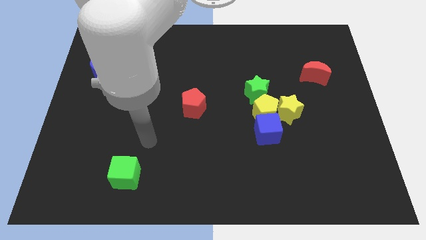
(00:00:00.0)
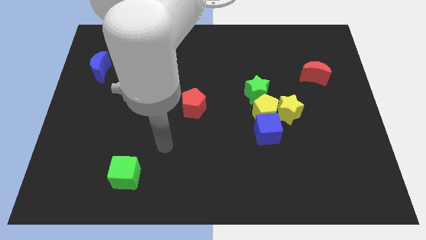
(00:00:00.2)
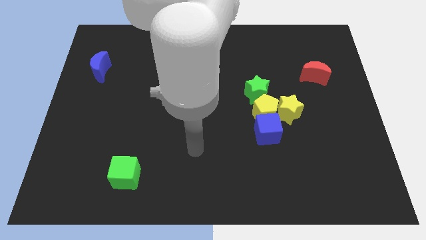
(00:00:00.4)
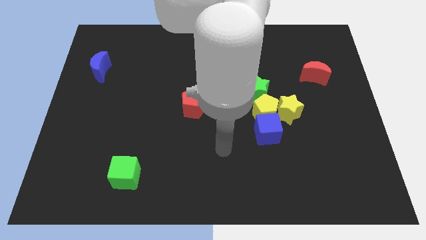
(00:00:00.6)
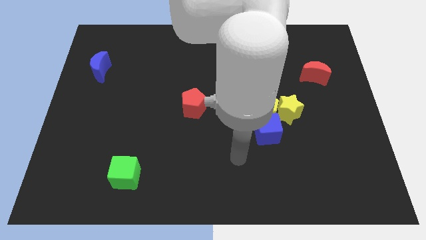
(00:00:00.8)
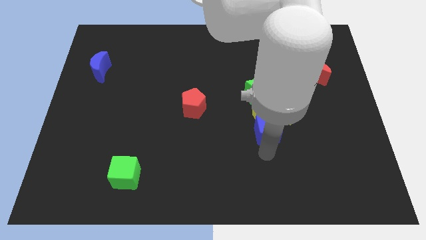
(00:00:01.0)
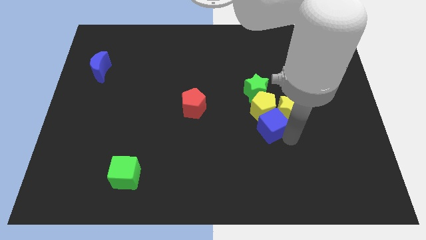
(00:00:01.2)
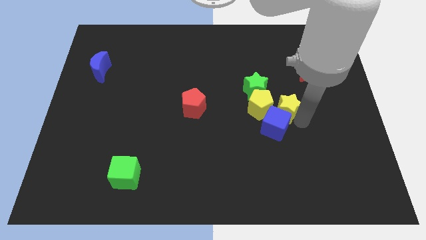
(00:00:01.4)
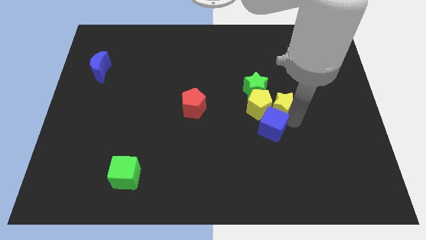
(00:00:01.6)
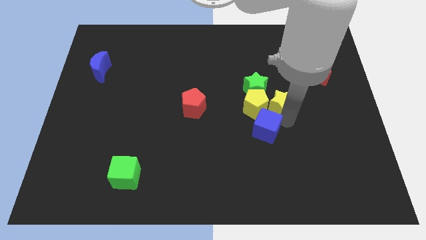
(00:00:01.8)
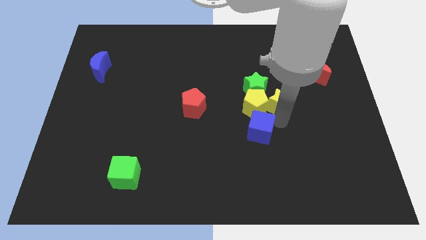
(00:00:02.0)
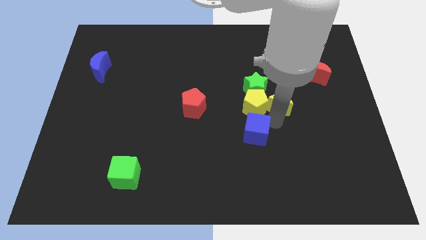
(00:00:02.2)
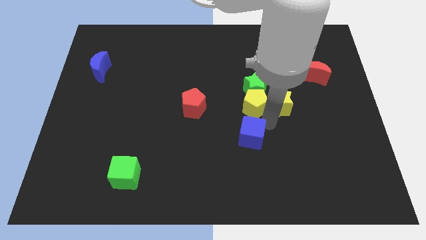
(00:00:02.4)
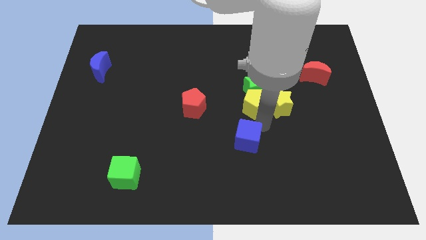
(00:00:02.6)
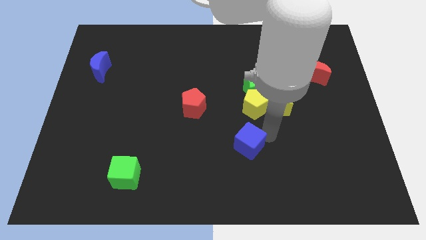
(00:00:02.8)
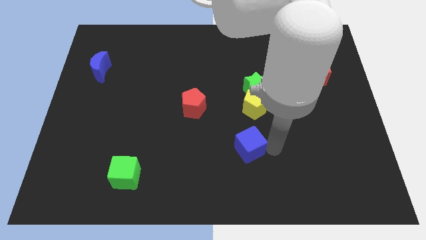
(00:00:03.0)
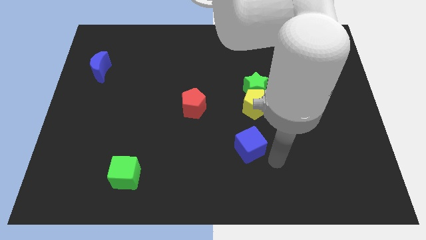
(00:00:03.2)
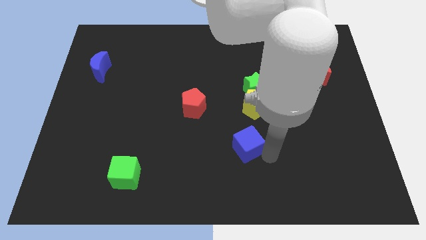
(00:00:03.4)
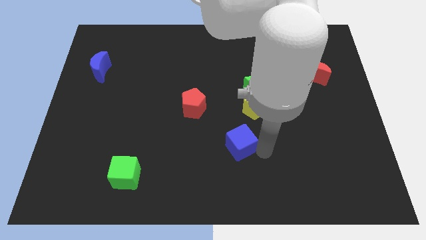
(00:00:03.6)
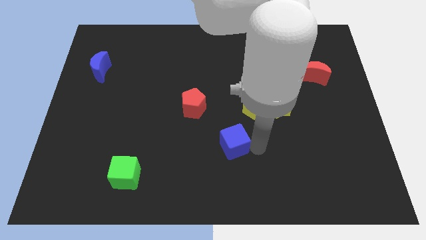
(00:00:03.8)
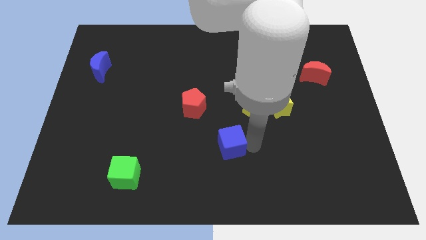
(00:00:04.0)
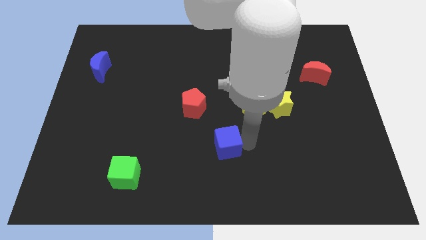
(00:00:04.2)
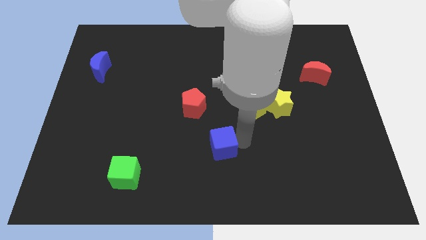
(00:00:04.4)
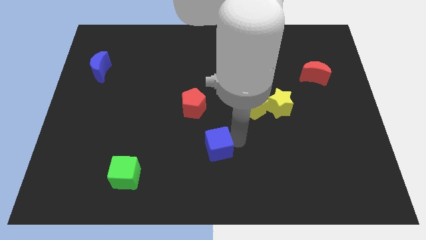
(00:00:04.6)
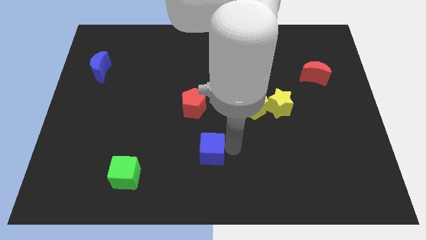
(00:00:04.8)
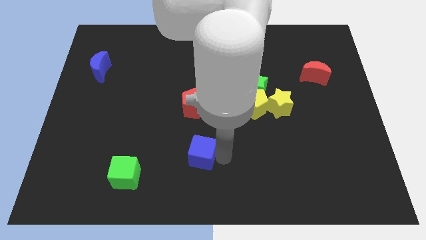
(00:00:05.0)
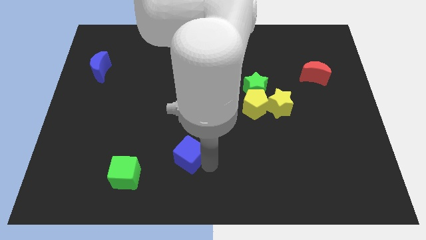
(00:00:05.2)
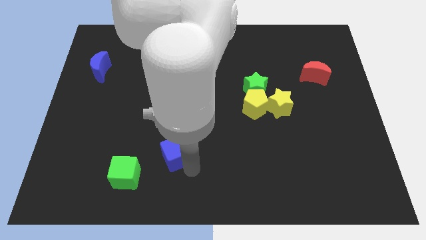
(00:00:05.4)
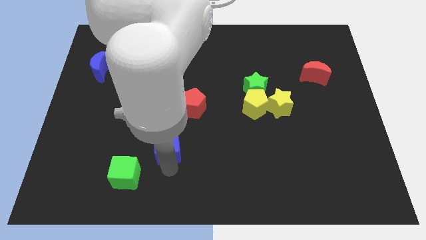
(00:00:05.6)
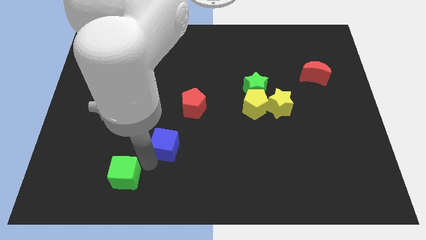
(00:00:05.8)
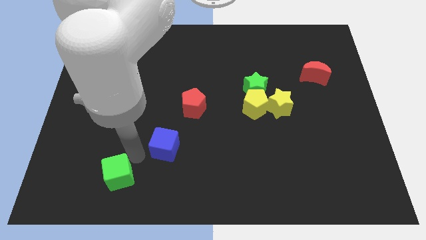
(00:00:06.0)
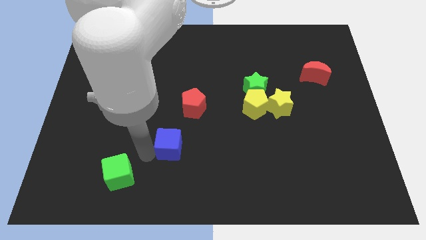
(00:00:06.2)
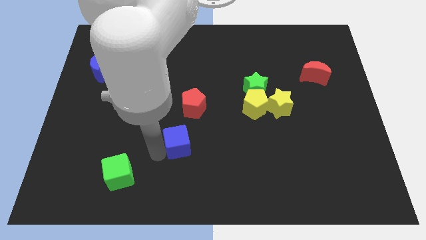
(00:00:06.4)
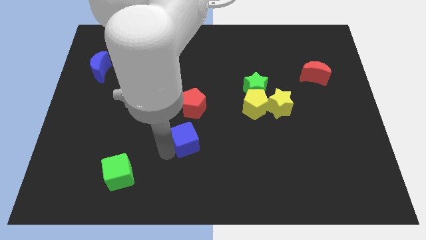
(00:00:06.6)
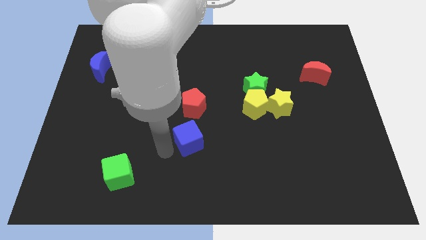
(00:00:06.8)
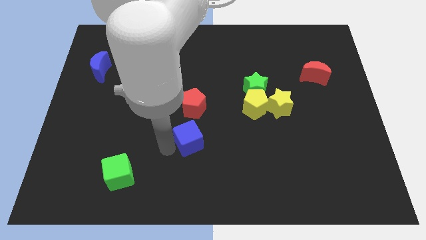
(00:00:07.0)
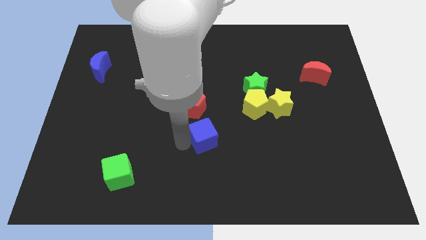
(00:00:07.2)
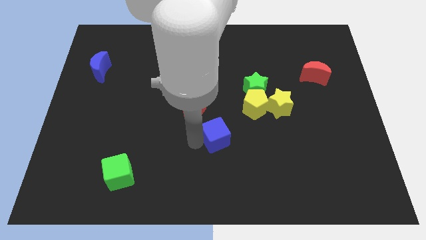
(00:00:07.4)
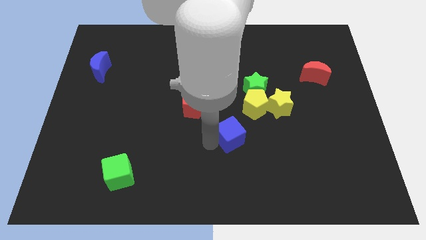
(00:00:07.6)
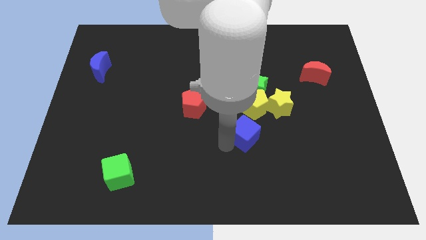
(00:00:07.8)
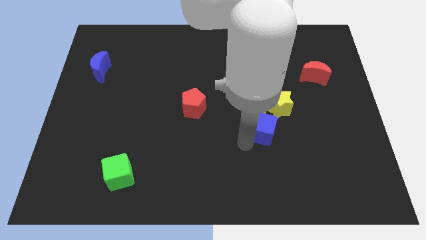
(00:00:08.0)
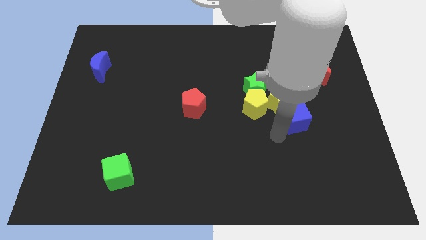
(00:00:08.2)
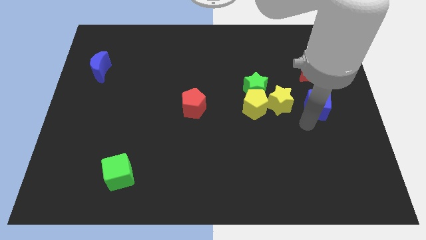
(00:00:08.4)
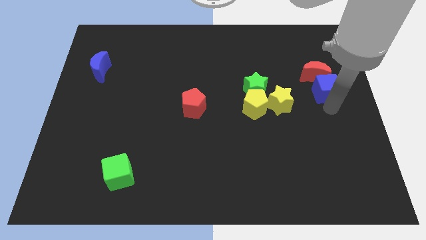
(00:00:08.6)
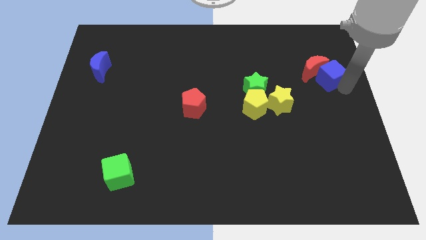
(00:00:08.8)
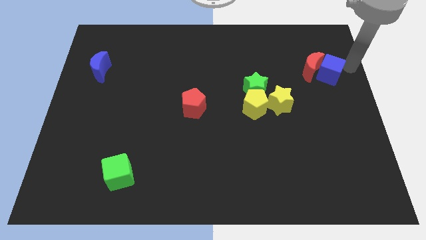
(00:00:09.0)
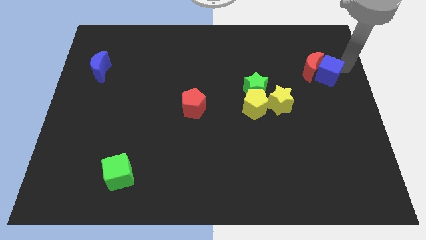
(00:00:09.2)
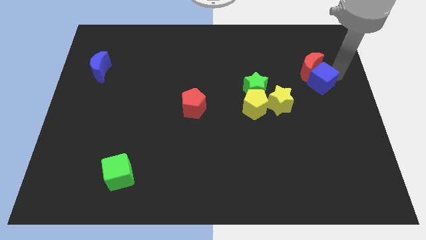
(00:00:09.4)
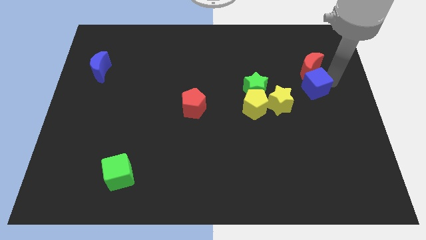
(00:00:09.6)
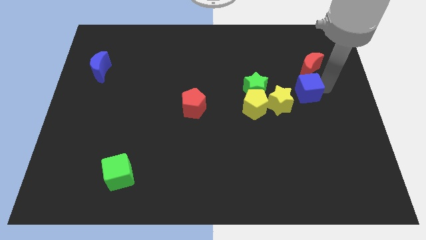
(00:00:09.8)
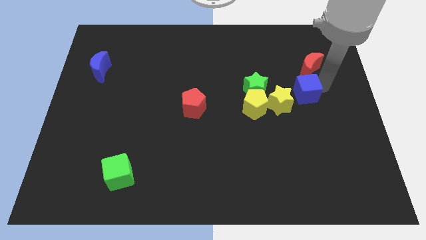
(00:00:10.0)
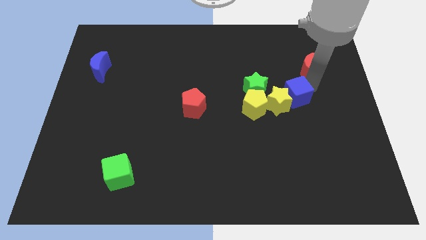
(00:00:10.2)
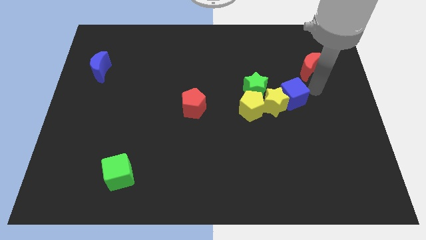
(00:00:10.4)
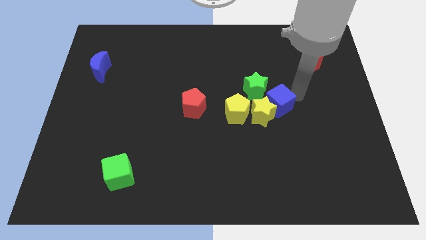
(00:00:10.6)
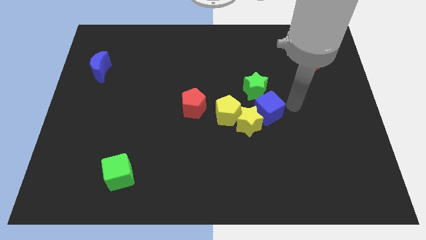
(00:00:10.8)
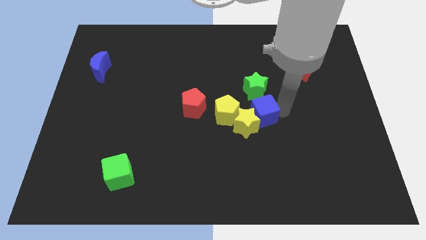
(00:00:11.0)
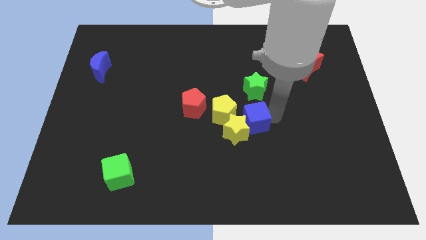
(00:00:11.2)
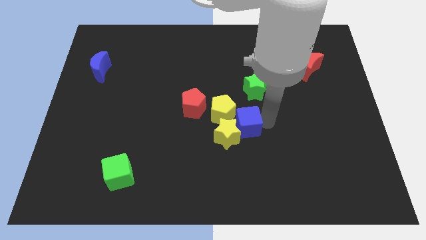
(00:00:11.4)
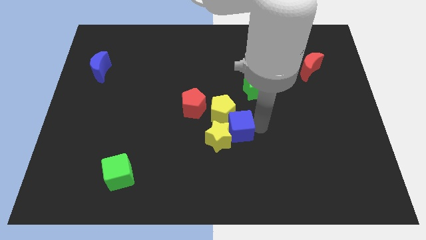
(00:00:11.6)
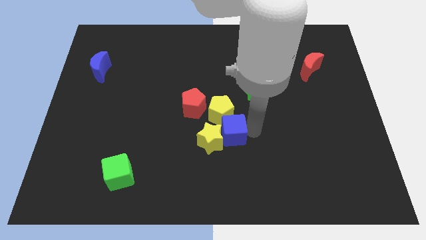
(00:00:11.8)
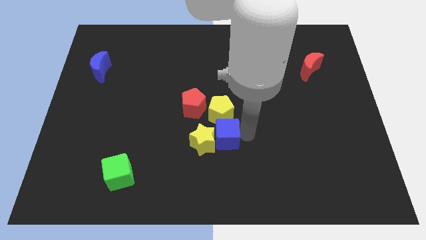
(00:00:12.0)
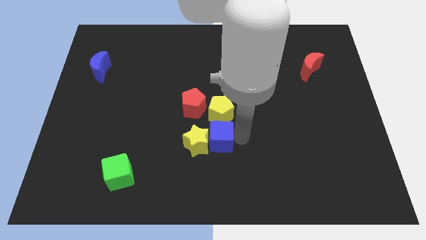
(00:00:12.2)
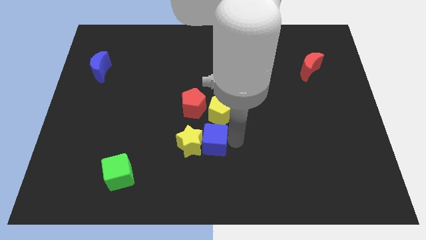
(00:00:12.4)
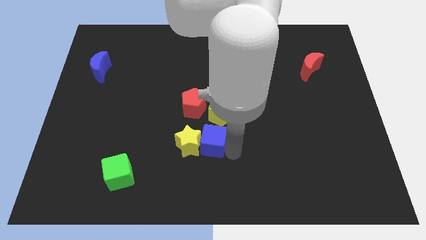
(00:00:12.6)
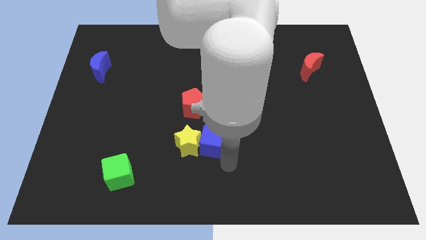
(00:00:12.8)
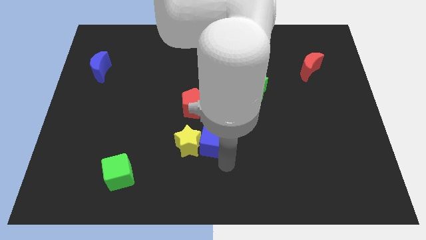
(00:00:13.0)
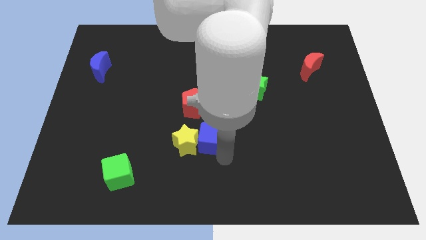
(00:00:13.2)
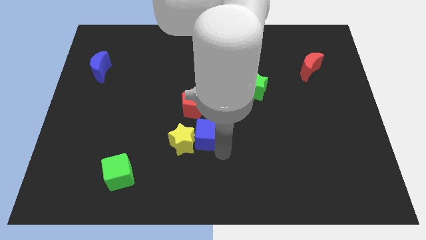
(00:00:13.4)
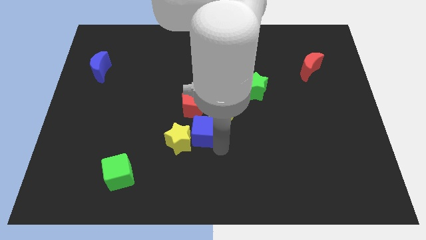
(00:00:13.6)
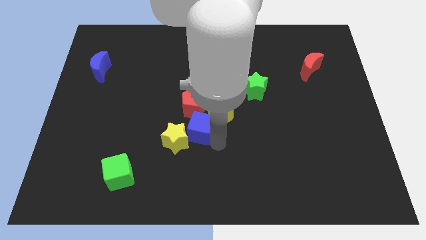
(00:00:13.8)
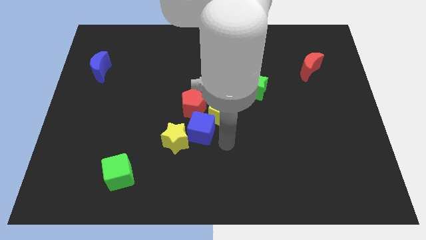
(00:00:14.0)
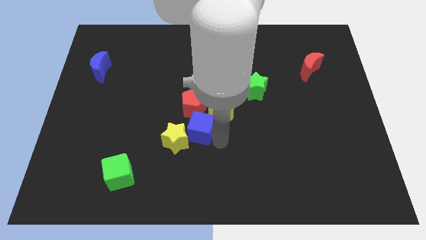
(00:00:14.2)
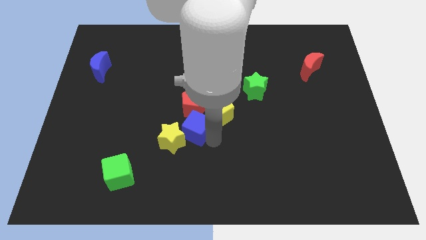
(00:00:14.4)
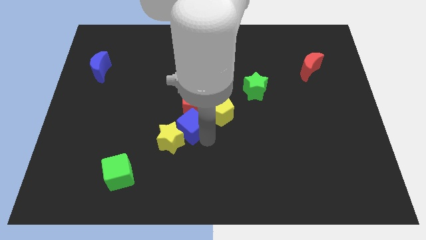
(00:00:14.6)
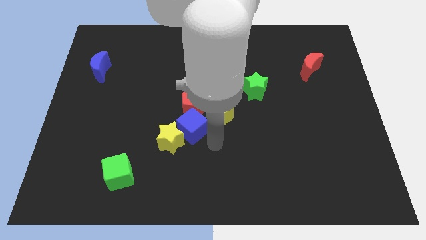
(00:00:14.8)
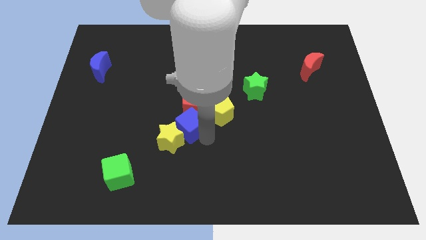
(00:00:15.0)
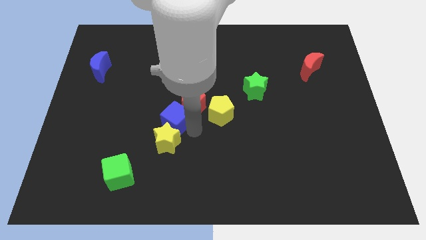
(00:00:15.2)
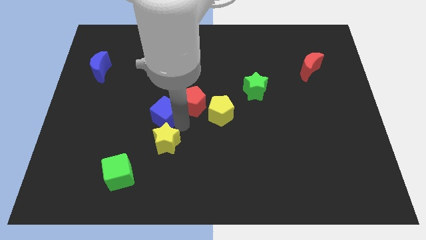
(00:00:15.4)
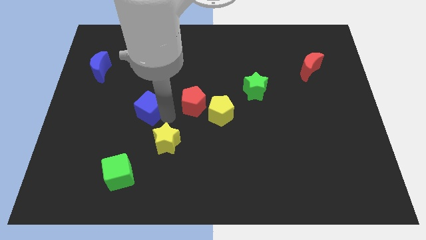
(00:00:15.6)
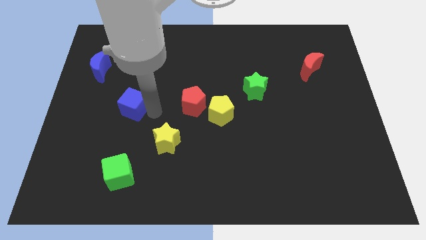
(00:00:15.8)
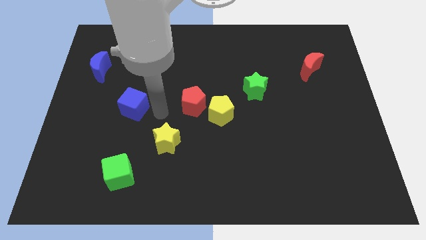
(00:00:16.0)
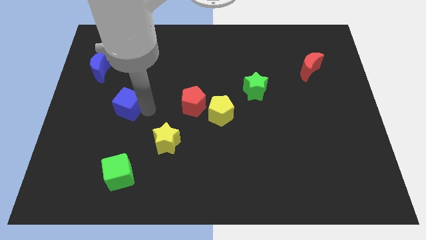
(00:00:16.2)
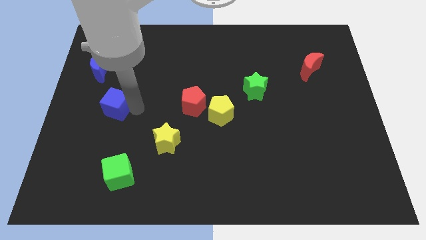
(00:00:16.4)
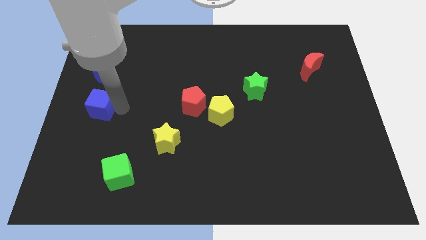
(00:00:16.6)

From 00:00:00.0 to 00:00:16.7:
put the blue cube to the left side
